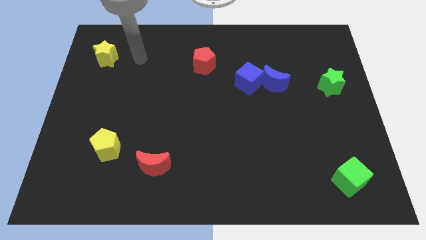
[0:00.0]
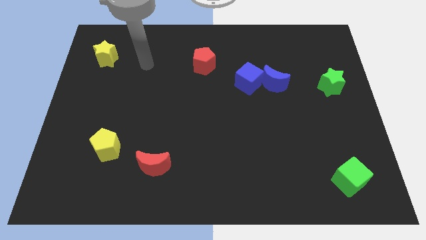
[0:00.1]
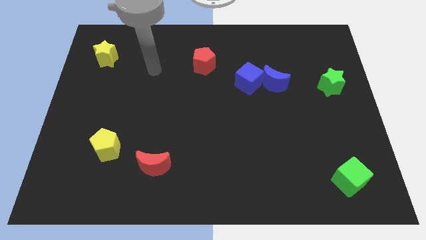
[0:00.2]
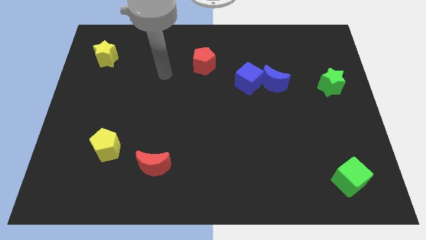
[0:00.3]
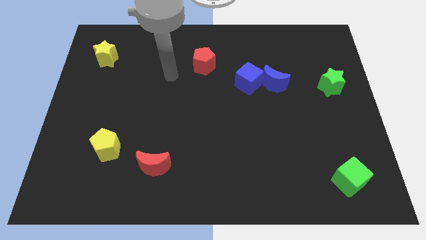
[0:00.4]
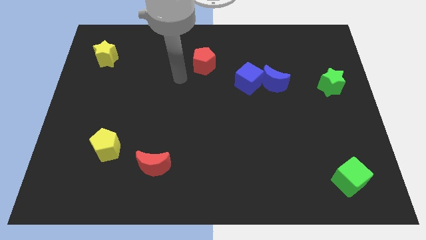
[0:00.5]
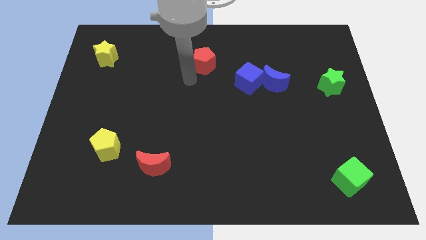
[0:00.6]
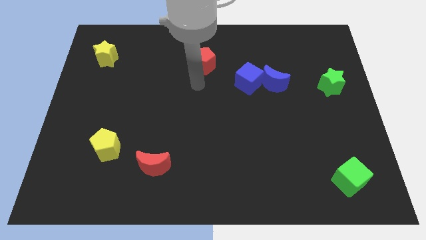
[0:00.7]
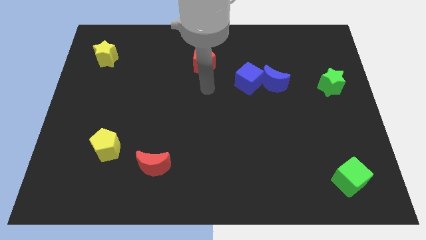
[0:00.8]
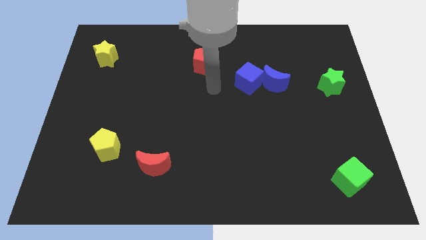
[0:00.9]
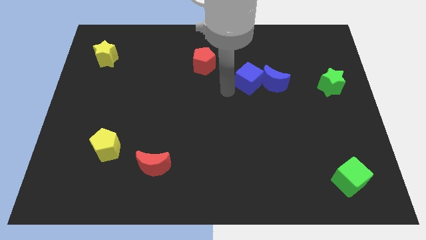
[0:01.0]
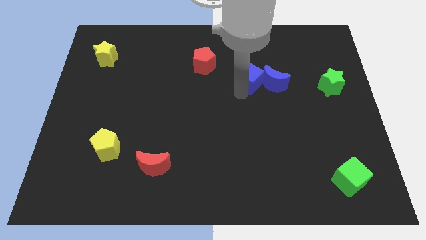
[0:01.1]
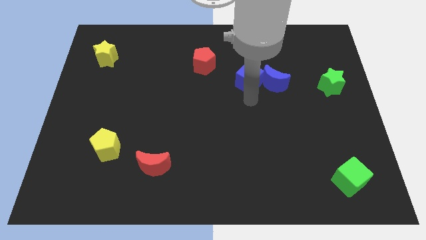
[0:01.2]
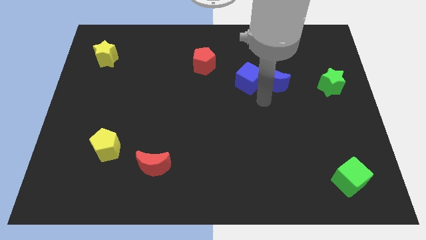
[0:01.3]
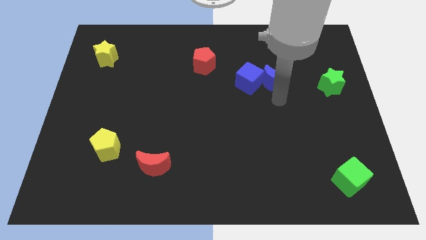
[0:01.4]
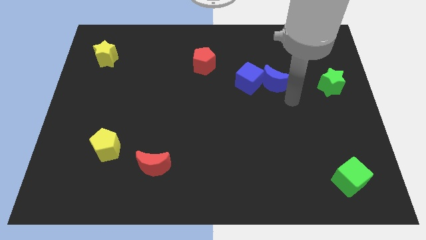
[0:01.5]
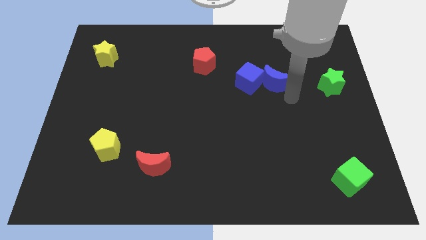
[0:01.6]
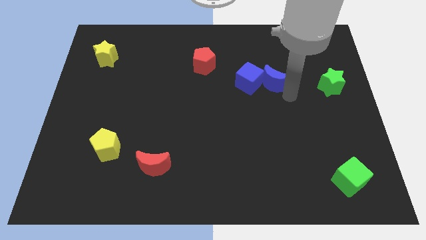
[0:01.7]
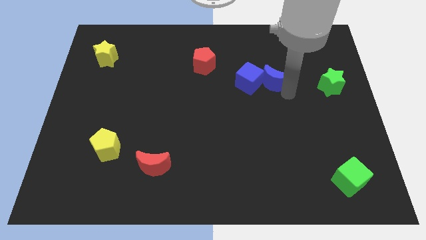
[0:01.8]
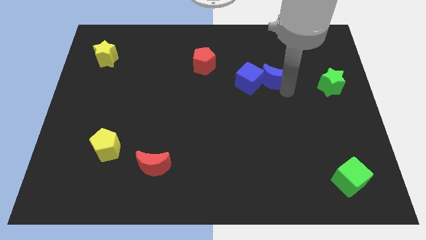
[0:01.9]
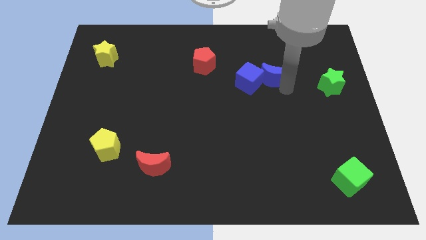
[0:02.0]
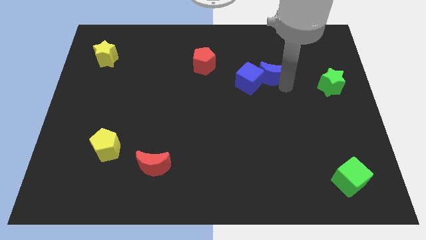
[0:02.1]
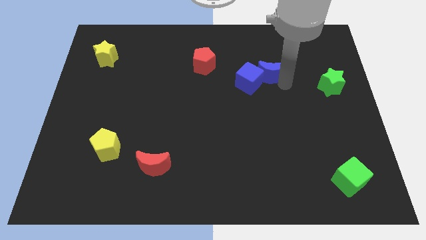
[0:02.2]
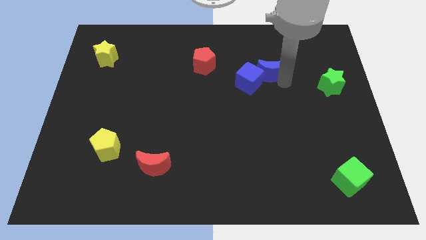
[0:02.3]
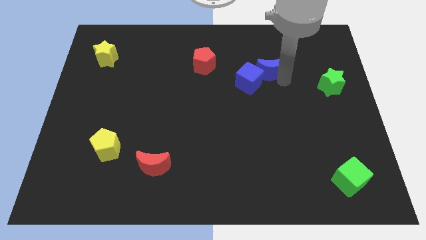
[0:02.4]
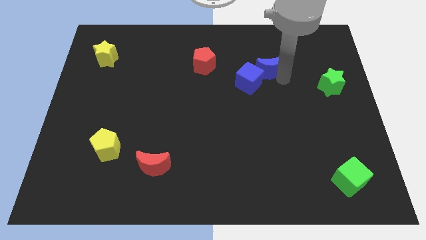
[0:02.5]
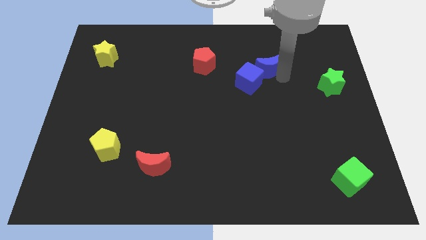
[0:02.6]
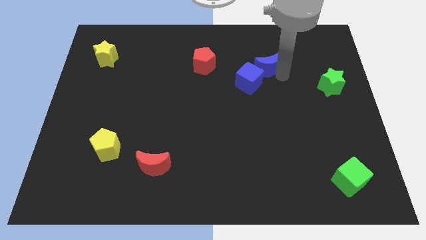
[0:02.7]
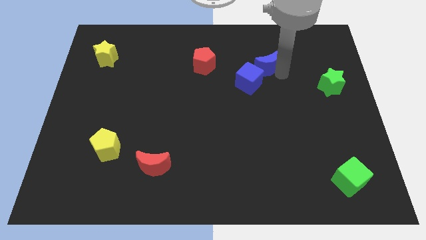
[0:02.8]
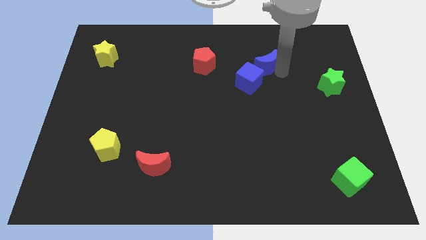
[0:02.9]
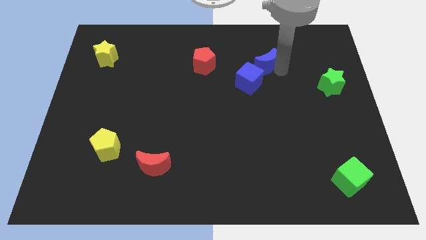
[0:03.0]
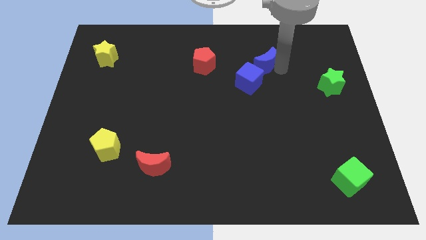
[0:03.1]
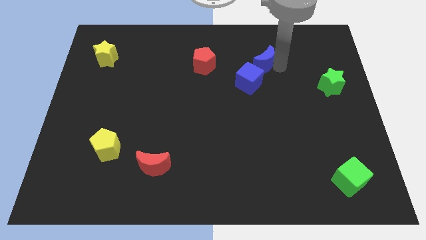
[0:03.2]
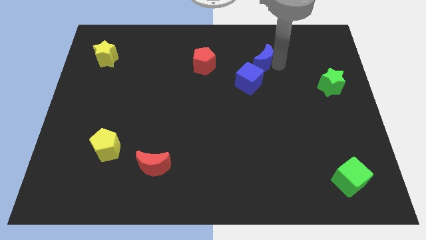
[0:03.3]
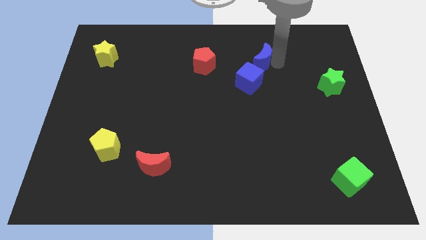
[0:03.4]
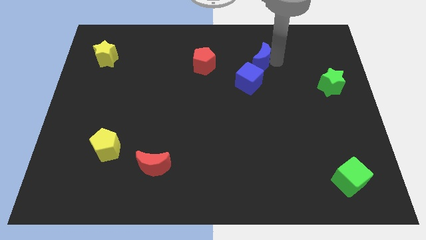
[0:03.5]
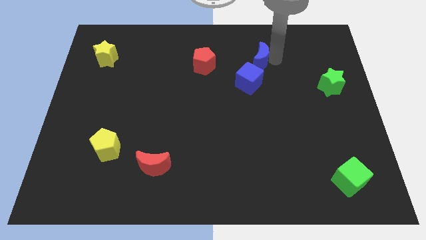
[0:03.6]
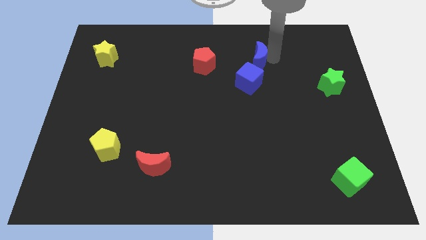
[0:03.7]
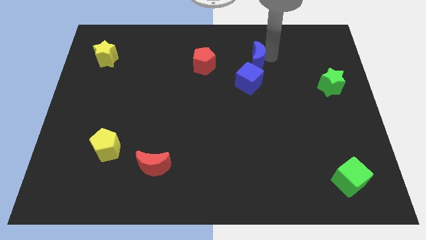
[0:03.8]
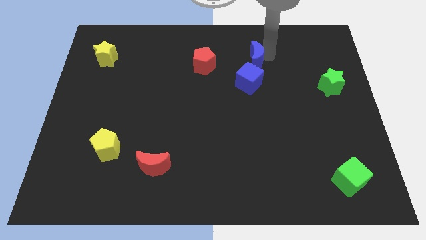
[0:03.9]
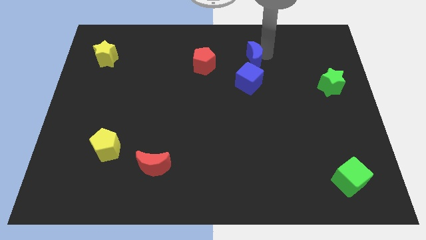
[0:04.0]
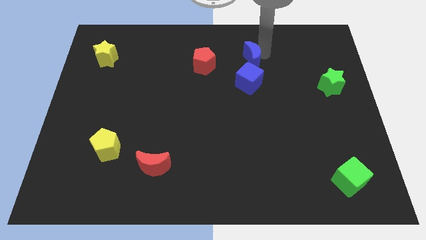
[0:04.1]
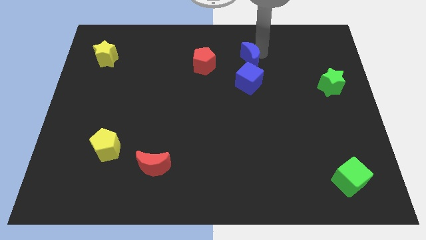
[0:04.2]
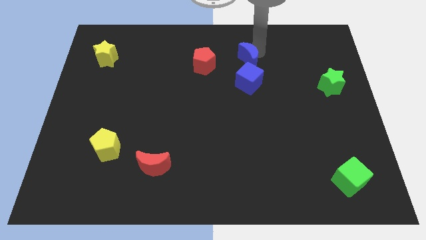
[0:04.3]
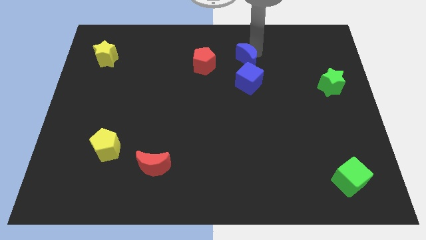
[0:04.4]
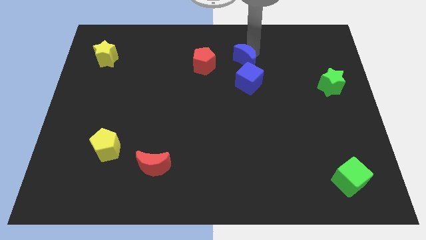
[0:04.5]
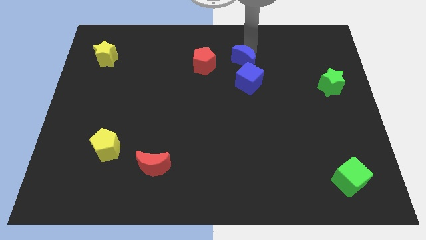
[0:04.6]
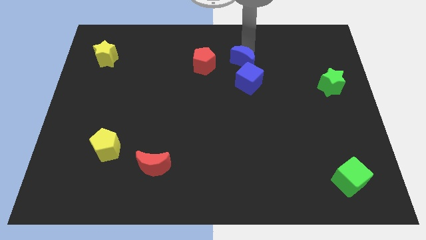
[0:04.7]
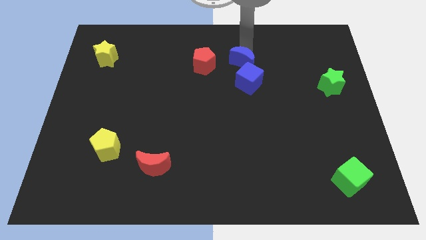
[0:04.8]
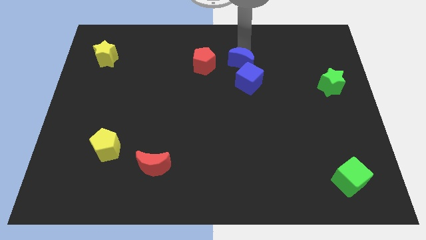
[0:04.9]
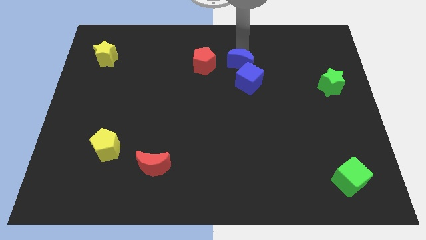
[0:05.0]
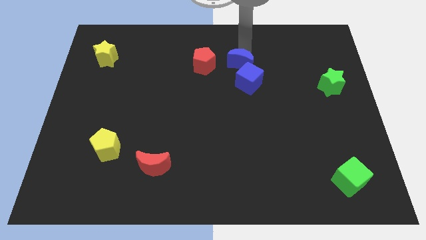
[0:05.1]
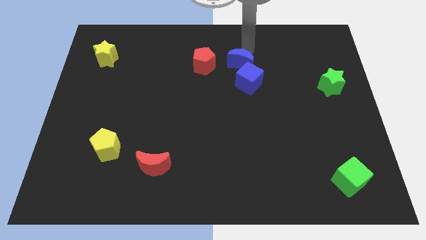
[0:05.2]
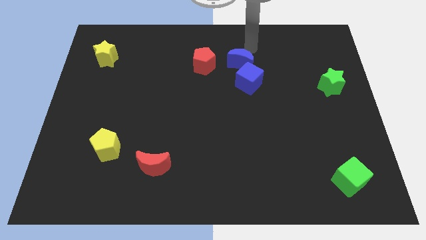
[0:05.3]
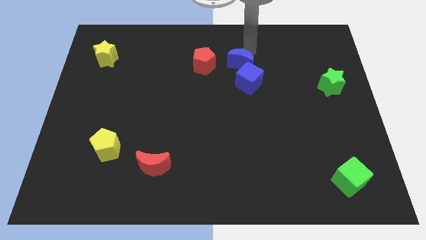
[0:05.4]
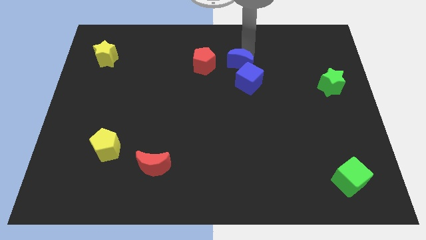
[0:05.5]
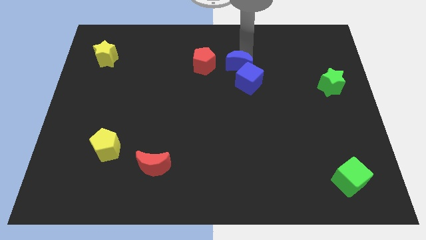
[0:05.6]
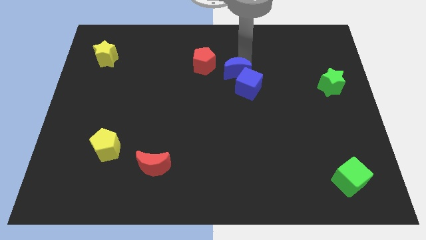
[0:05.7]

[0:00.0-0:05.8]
slightly move the blue moon left

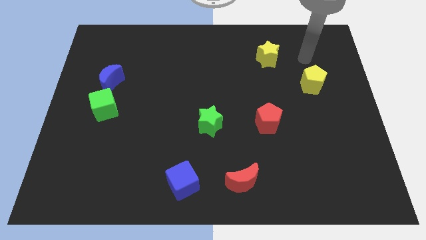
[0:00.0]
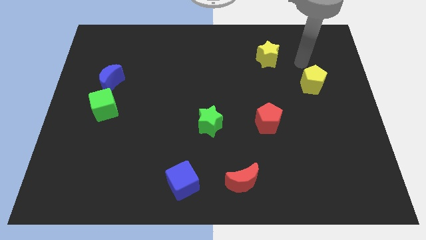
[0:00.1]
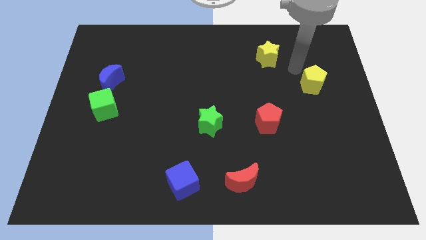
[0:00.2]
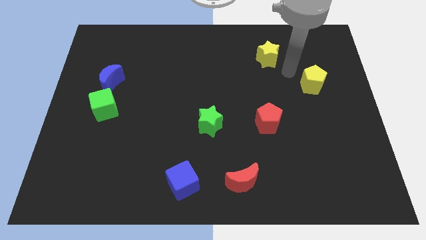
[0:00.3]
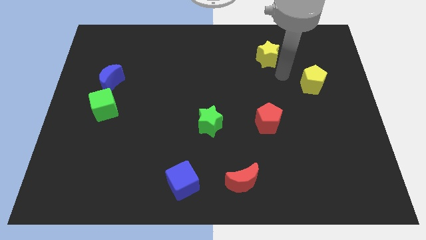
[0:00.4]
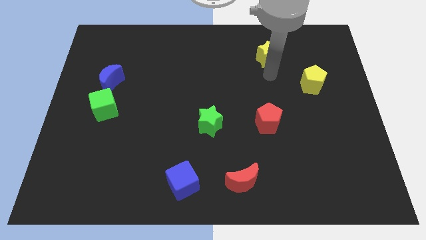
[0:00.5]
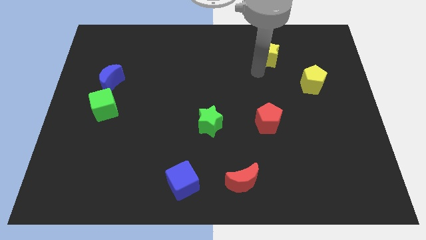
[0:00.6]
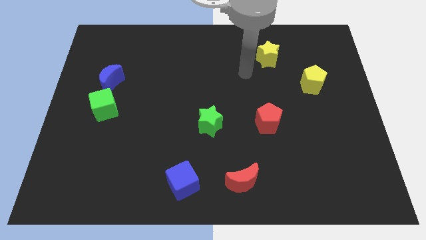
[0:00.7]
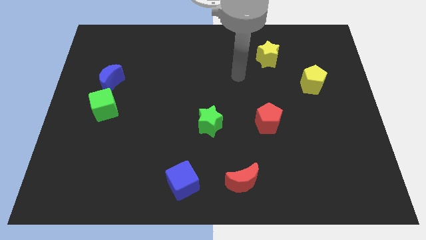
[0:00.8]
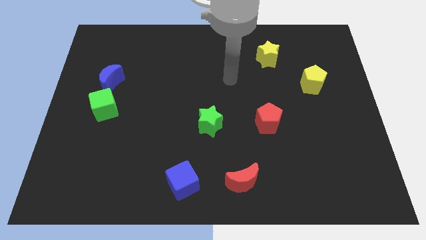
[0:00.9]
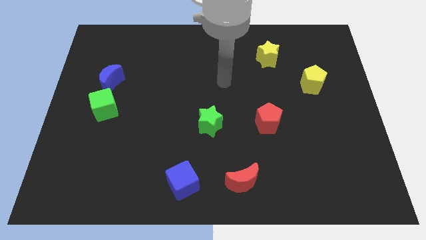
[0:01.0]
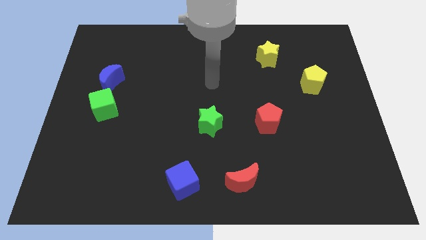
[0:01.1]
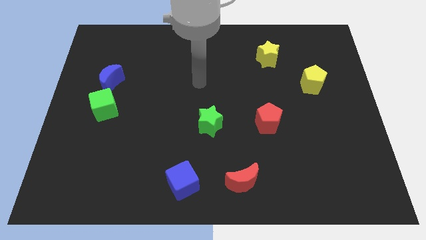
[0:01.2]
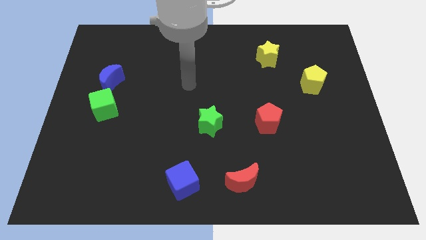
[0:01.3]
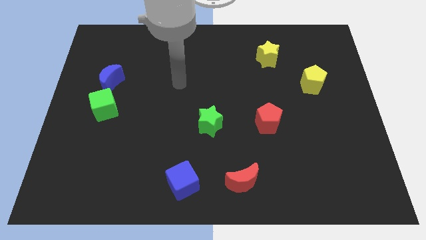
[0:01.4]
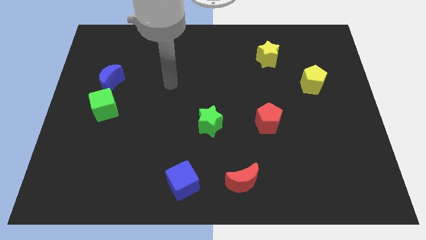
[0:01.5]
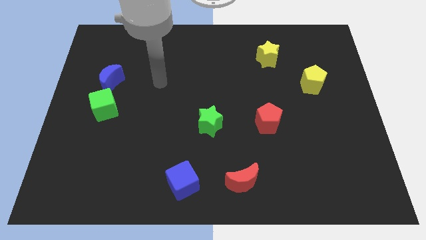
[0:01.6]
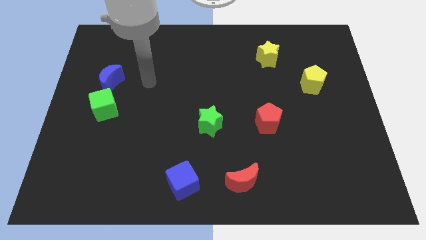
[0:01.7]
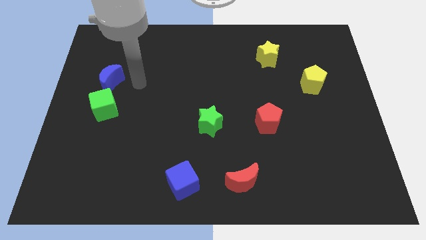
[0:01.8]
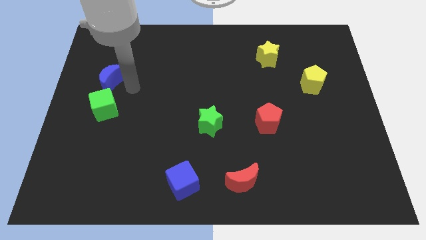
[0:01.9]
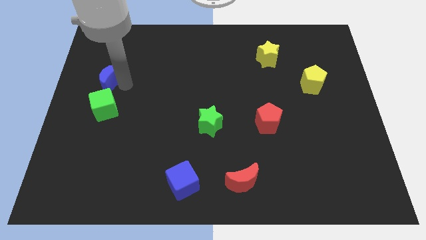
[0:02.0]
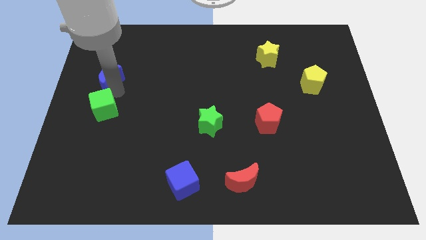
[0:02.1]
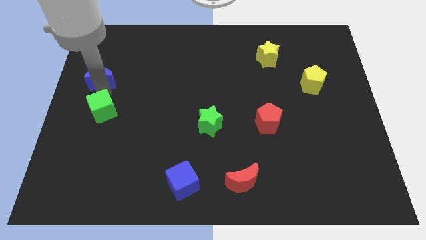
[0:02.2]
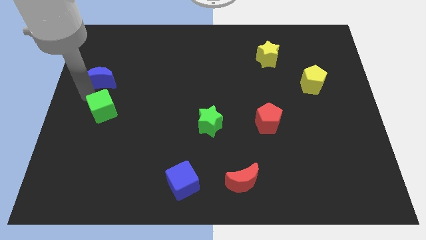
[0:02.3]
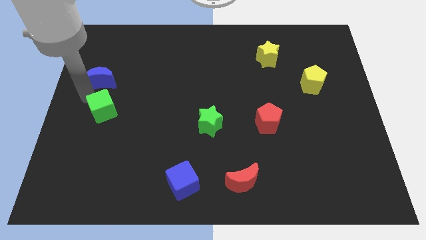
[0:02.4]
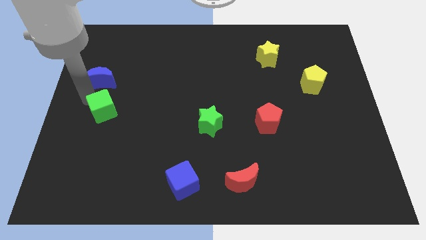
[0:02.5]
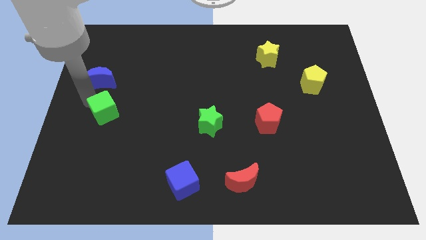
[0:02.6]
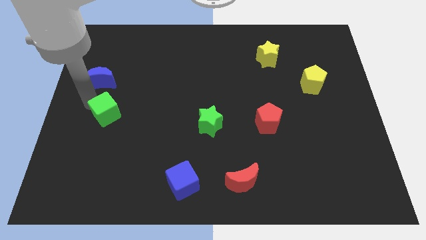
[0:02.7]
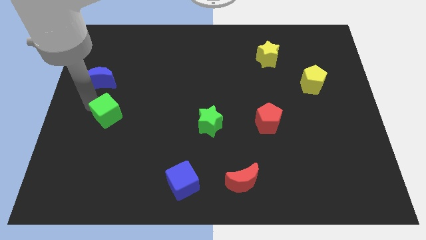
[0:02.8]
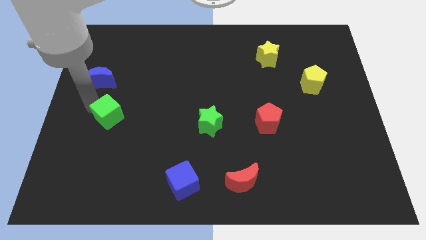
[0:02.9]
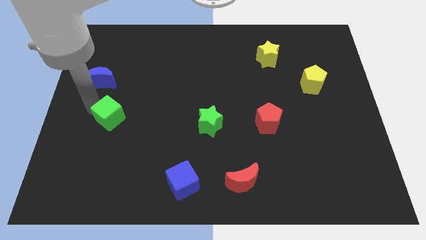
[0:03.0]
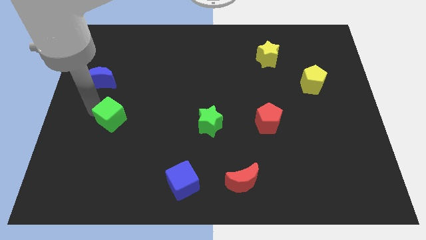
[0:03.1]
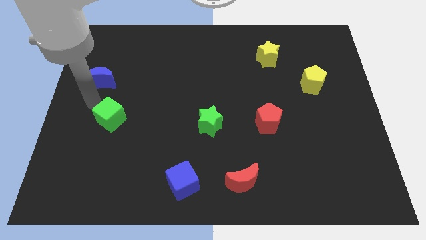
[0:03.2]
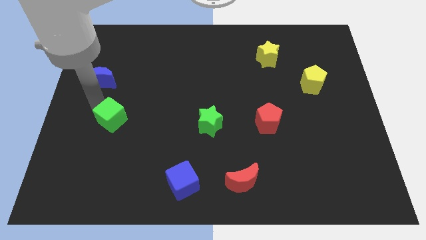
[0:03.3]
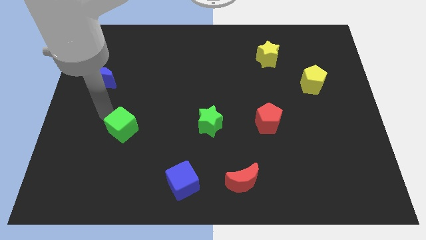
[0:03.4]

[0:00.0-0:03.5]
slightly push the green cube diagonally down and right
